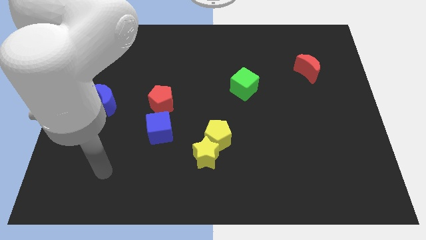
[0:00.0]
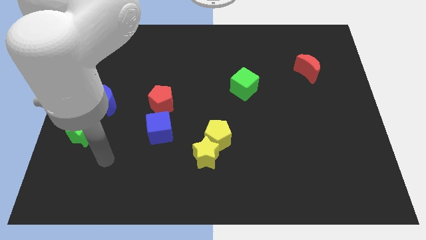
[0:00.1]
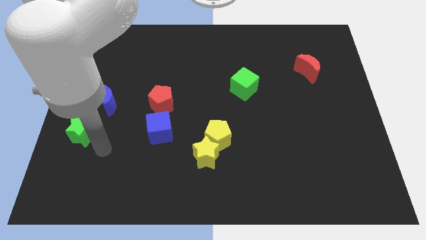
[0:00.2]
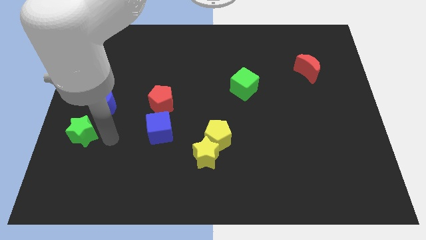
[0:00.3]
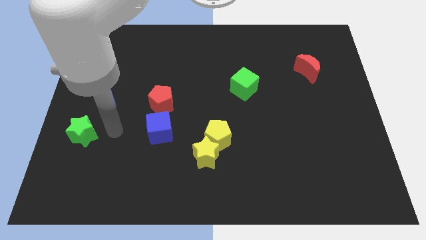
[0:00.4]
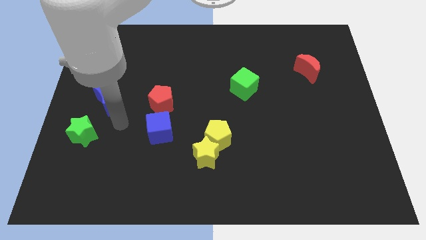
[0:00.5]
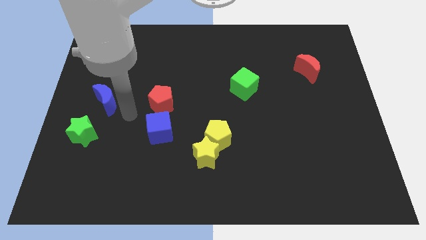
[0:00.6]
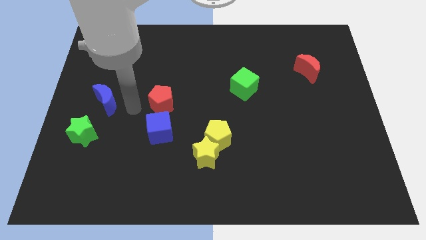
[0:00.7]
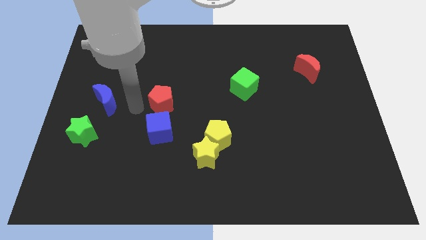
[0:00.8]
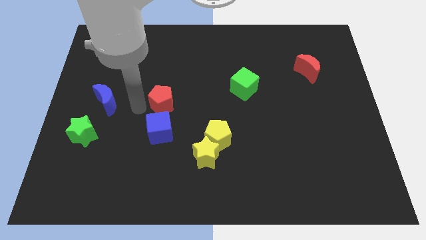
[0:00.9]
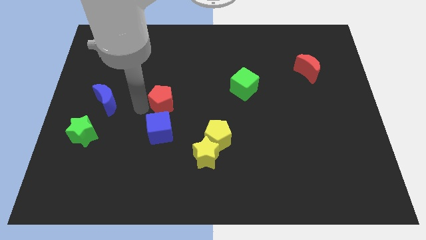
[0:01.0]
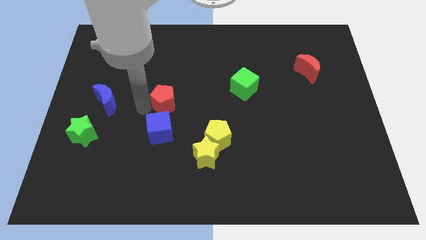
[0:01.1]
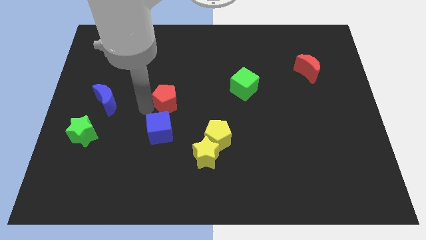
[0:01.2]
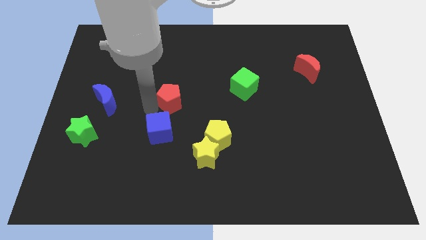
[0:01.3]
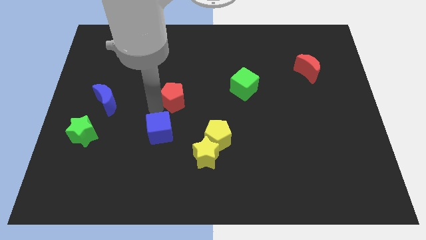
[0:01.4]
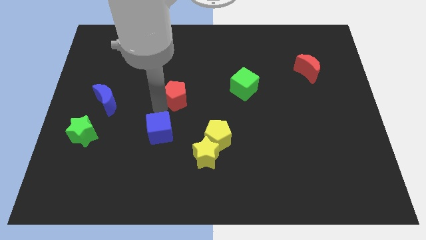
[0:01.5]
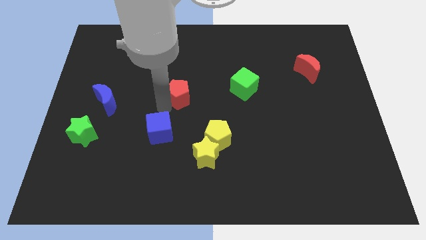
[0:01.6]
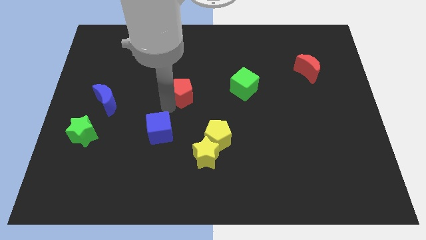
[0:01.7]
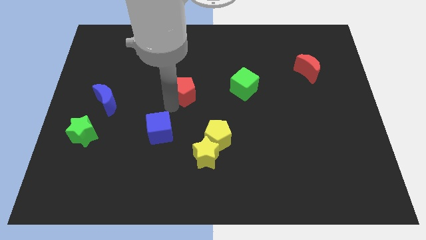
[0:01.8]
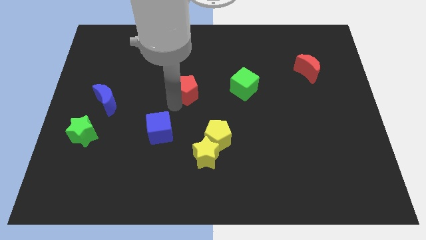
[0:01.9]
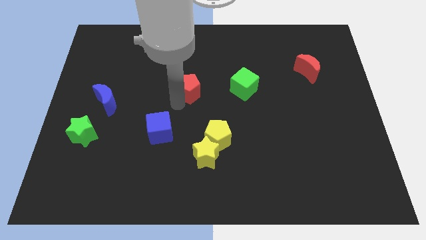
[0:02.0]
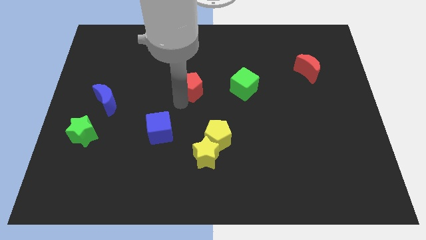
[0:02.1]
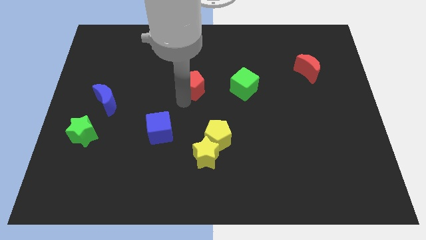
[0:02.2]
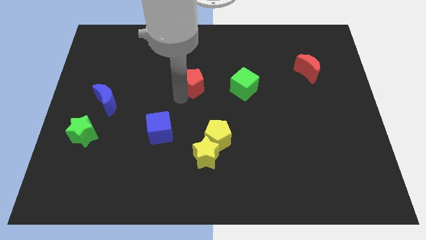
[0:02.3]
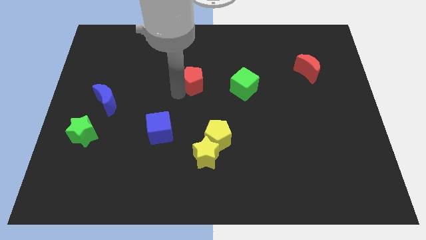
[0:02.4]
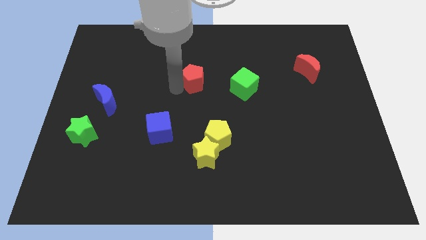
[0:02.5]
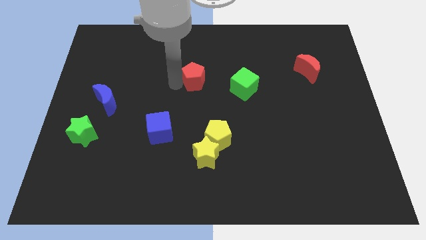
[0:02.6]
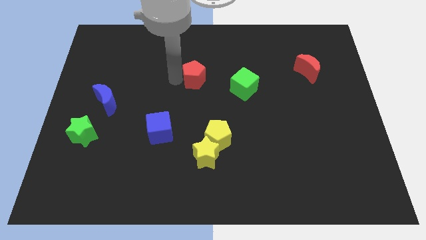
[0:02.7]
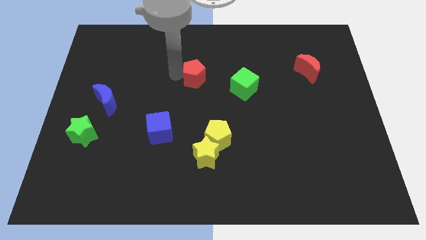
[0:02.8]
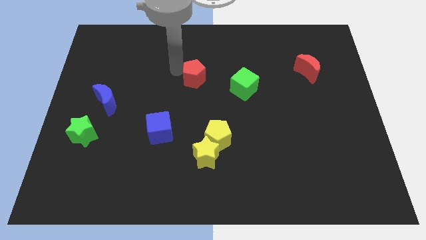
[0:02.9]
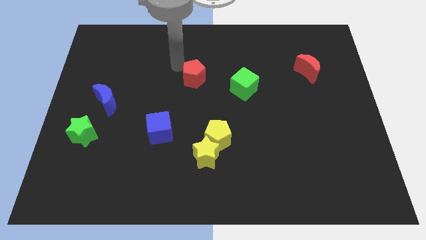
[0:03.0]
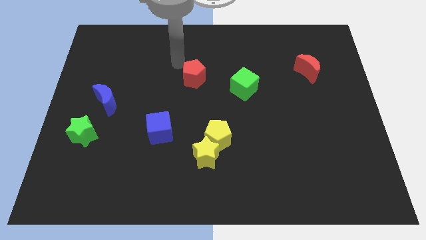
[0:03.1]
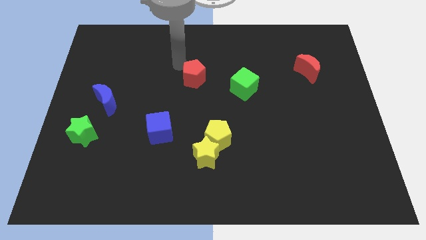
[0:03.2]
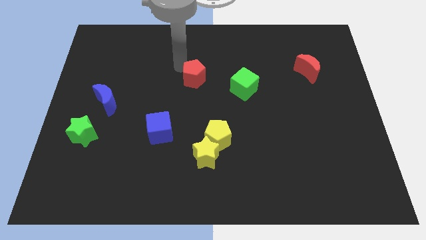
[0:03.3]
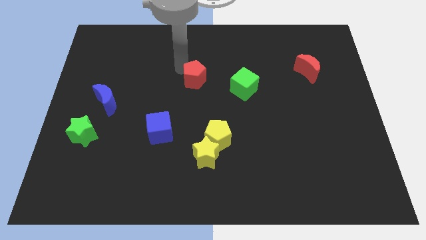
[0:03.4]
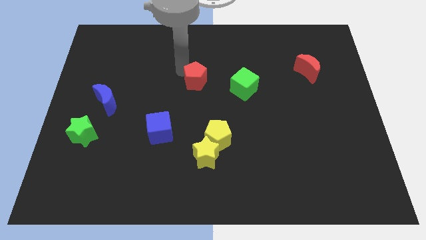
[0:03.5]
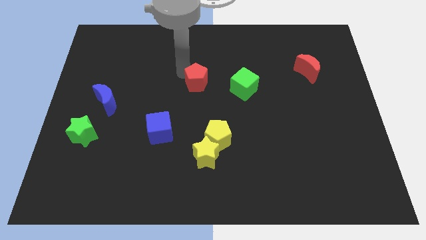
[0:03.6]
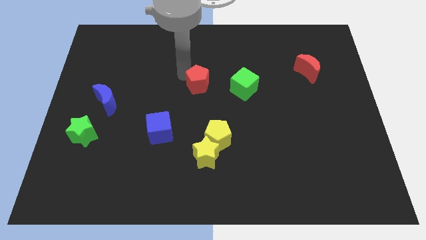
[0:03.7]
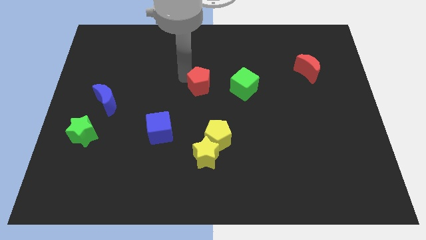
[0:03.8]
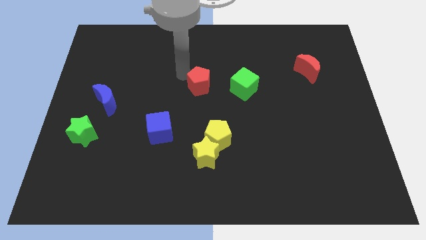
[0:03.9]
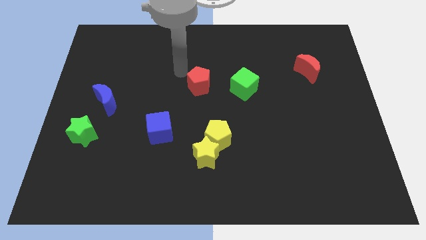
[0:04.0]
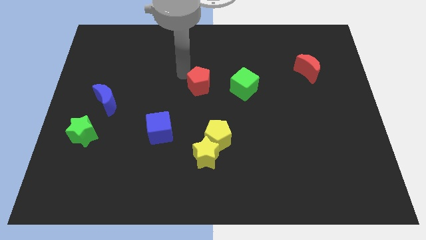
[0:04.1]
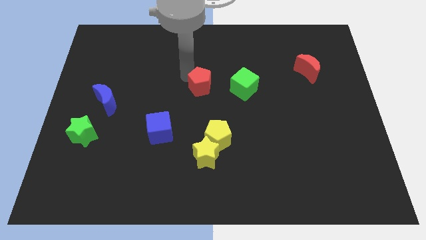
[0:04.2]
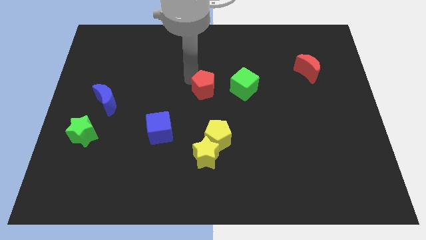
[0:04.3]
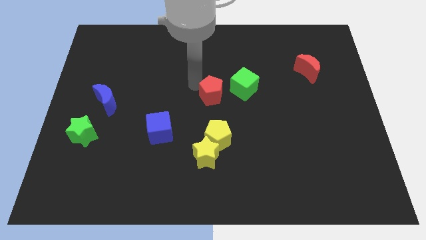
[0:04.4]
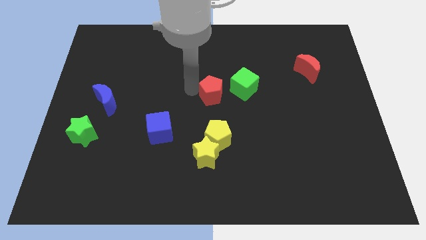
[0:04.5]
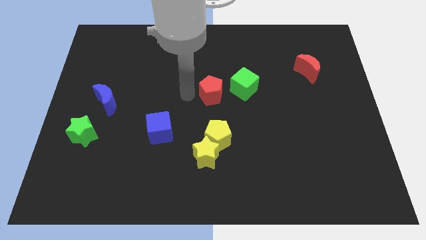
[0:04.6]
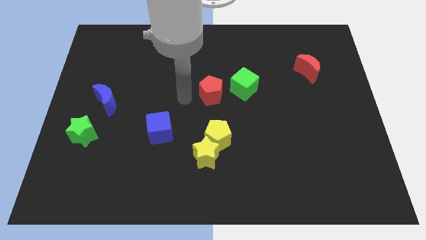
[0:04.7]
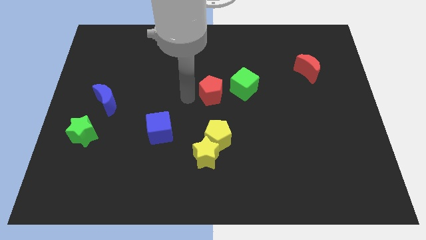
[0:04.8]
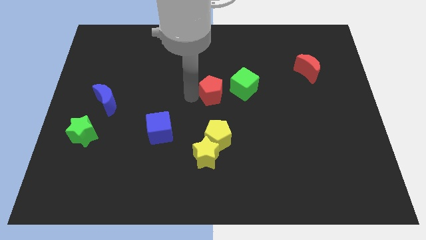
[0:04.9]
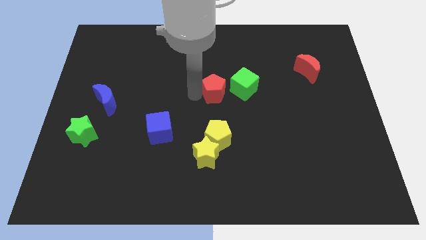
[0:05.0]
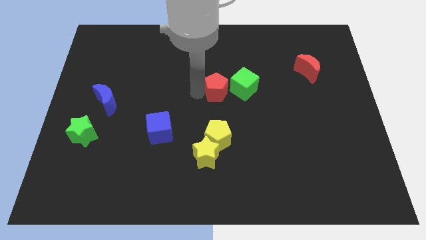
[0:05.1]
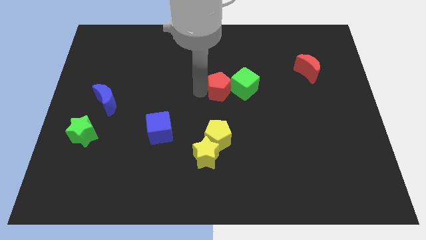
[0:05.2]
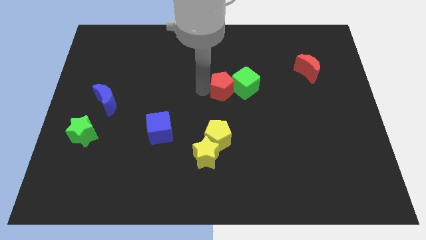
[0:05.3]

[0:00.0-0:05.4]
put the red pentagon to the green cube

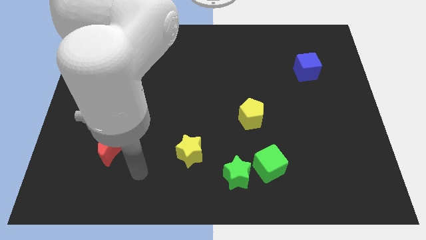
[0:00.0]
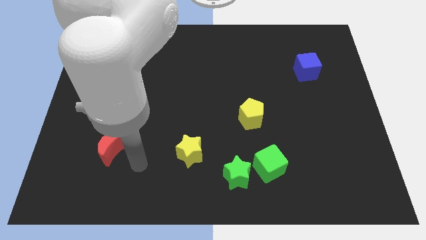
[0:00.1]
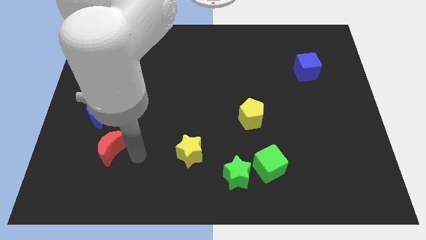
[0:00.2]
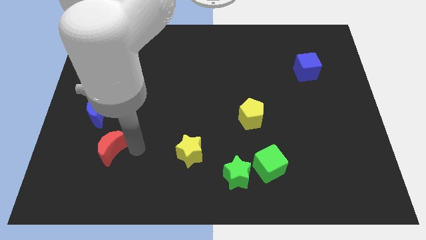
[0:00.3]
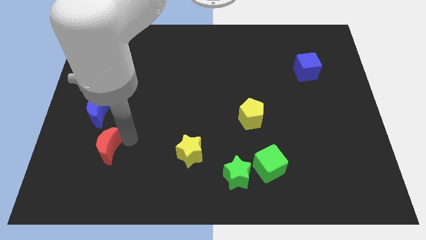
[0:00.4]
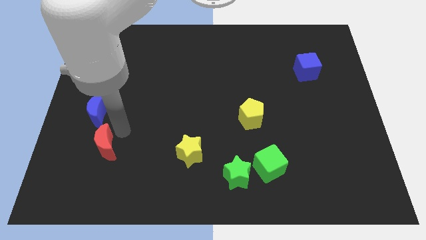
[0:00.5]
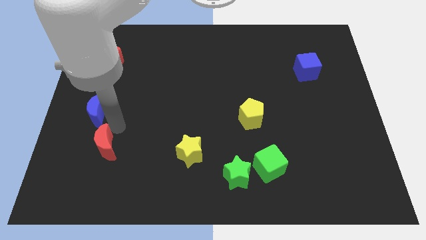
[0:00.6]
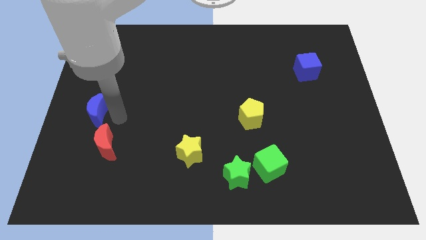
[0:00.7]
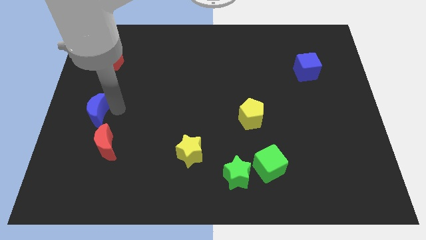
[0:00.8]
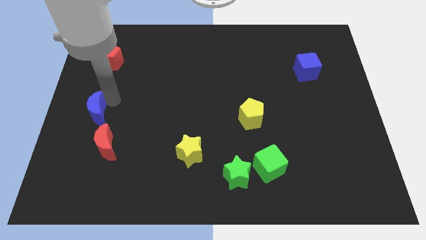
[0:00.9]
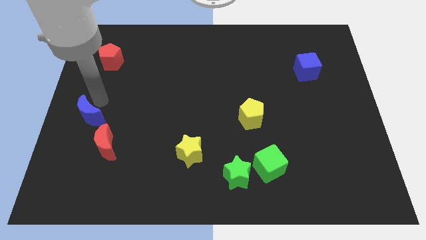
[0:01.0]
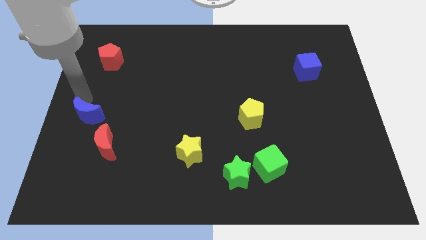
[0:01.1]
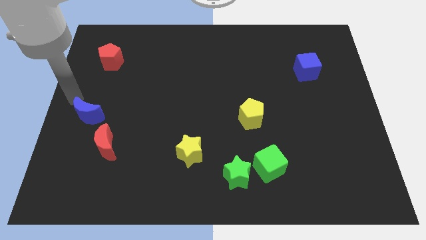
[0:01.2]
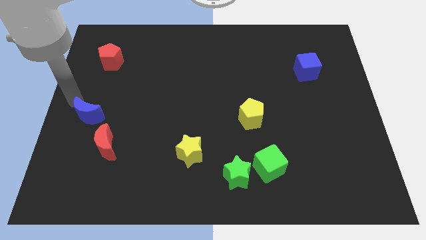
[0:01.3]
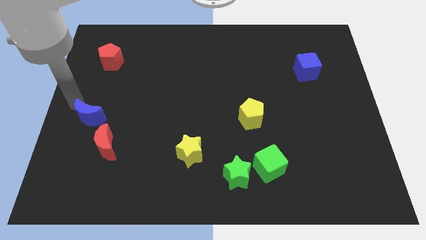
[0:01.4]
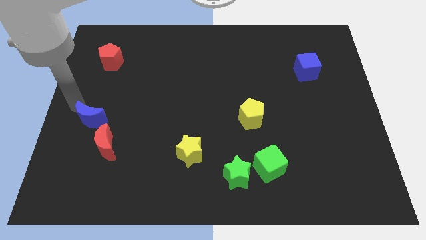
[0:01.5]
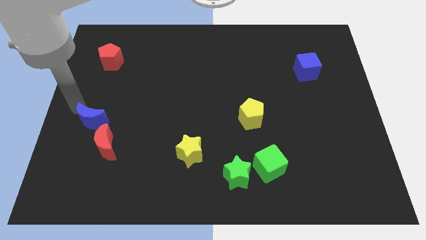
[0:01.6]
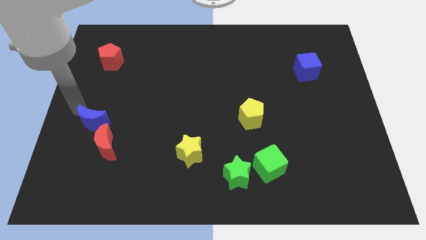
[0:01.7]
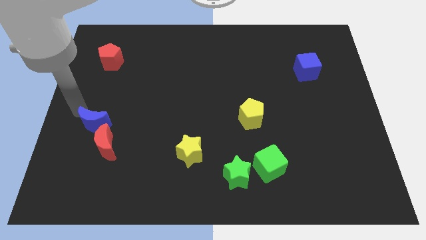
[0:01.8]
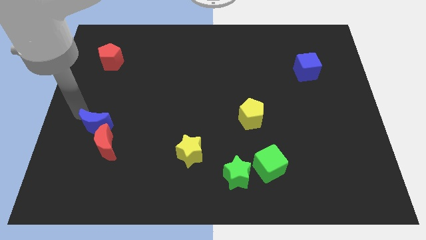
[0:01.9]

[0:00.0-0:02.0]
push the blue moon close to the red moon
